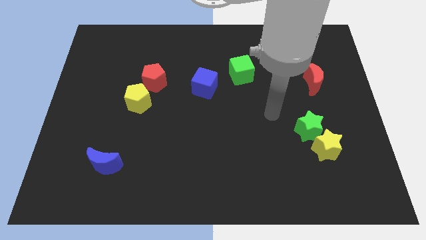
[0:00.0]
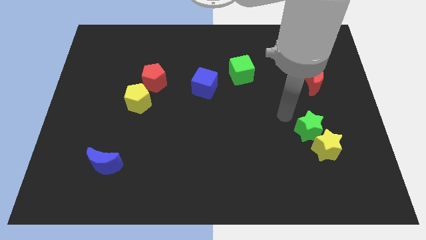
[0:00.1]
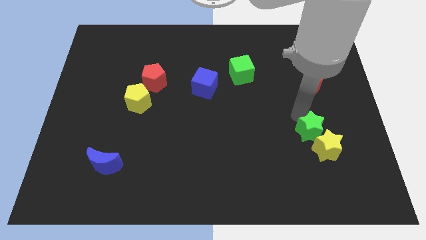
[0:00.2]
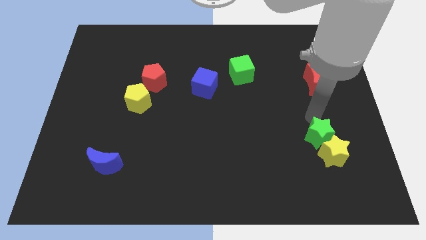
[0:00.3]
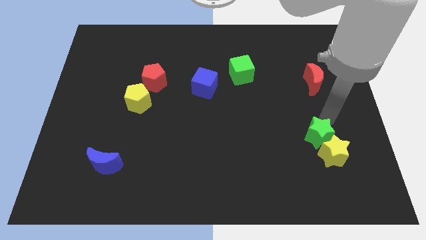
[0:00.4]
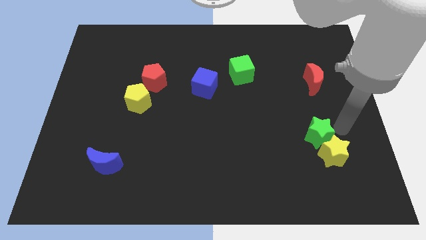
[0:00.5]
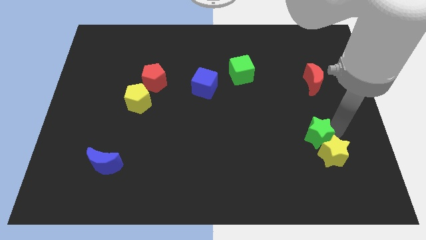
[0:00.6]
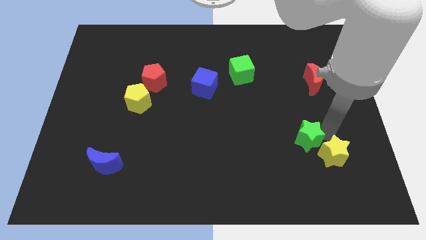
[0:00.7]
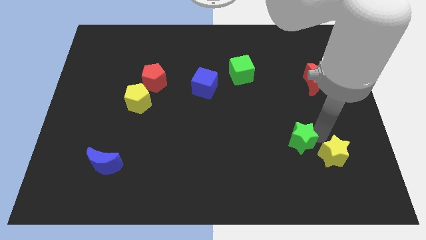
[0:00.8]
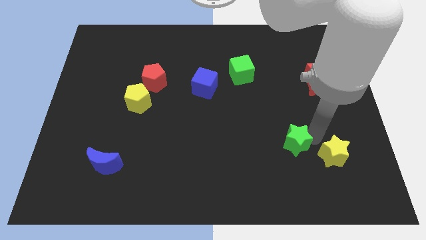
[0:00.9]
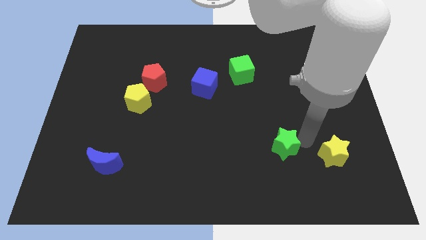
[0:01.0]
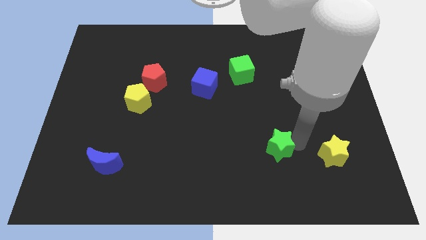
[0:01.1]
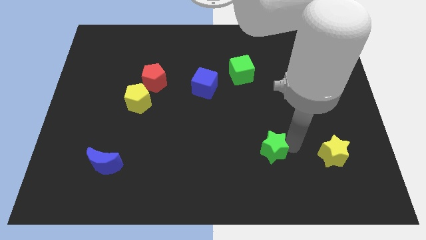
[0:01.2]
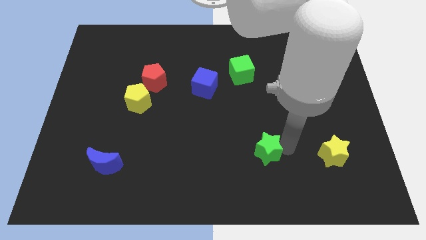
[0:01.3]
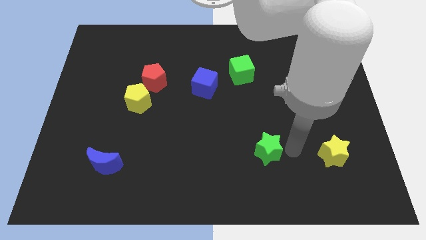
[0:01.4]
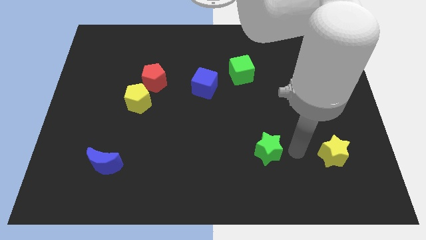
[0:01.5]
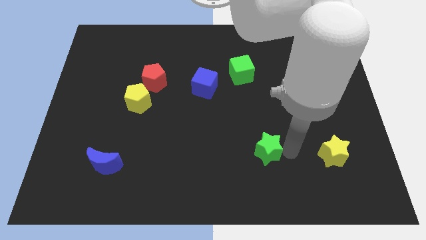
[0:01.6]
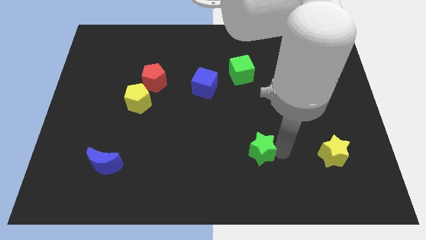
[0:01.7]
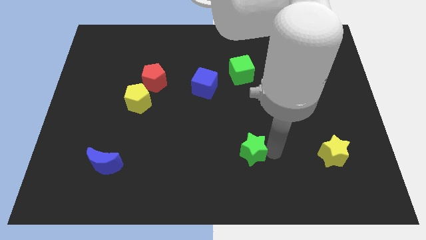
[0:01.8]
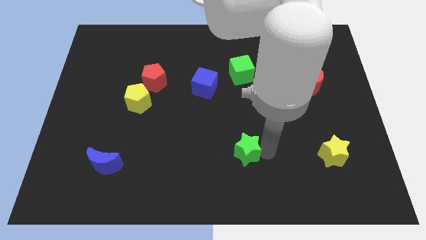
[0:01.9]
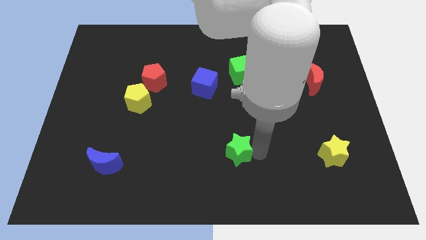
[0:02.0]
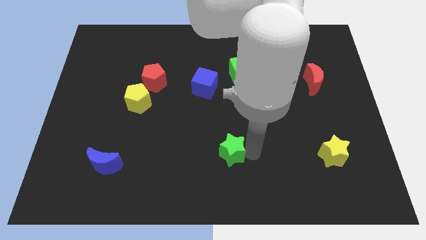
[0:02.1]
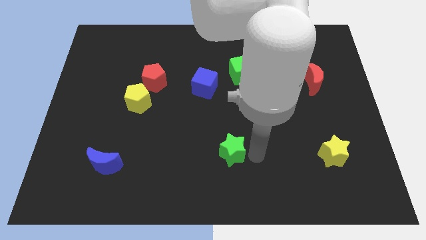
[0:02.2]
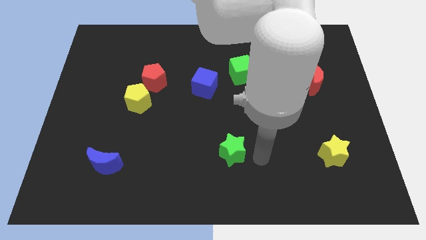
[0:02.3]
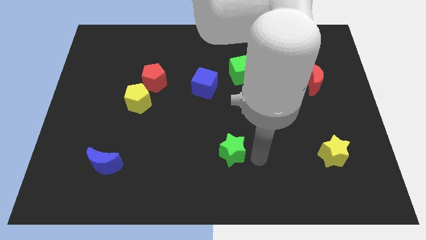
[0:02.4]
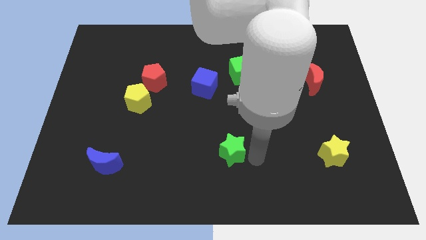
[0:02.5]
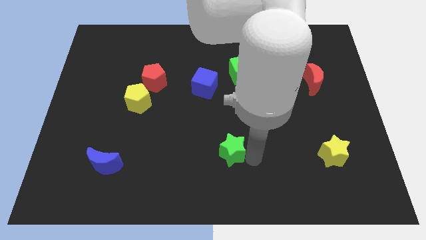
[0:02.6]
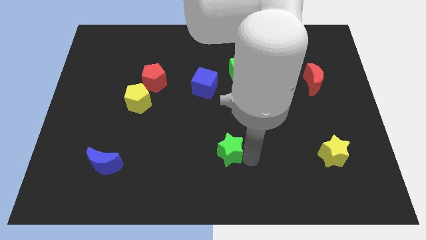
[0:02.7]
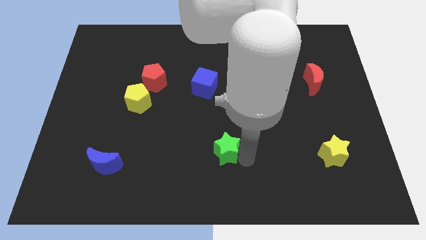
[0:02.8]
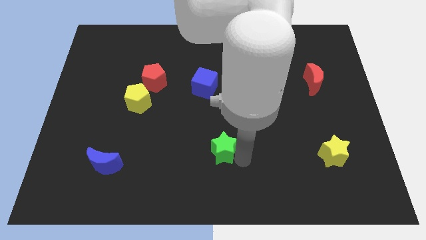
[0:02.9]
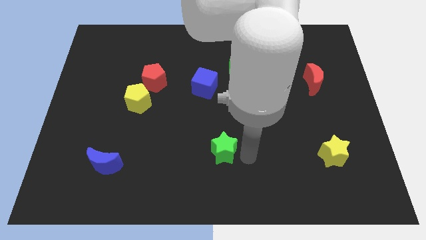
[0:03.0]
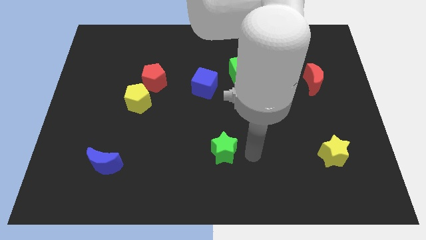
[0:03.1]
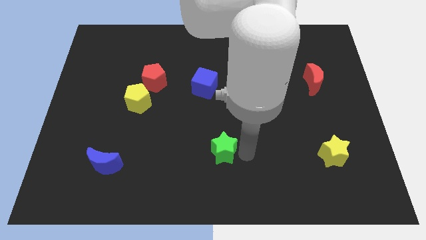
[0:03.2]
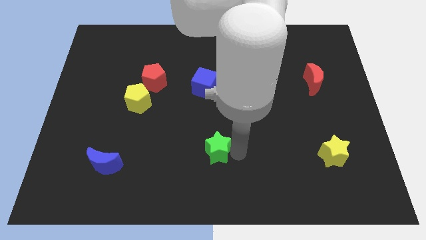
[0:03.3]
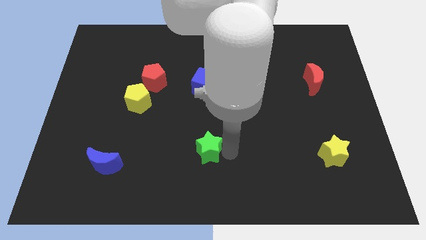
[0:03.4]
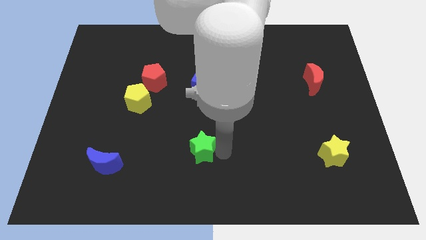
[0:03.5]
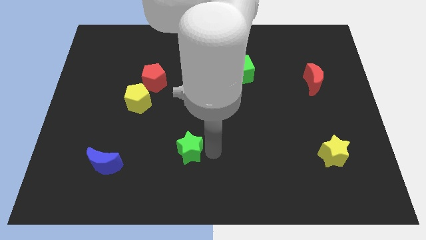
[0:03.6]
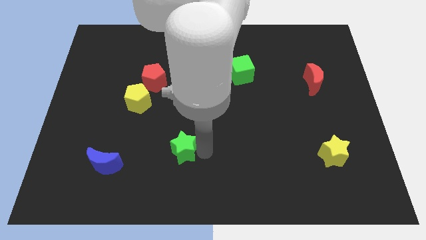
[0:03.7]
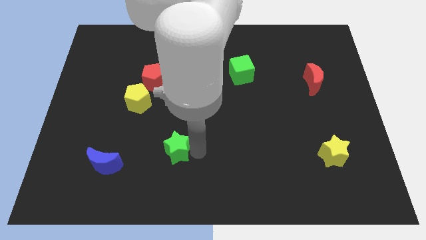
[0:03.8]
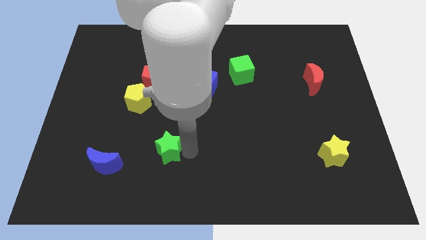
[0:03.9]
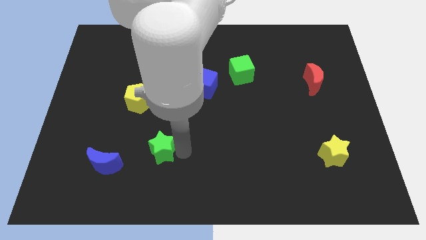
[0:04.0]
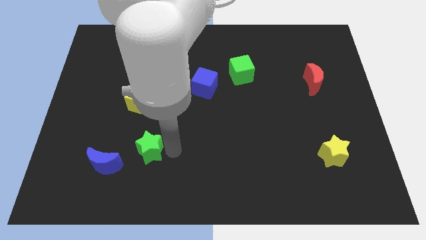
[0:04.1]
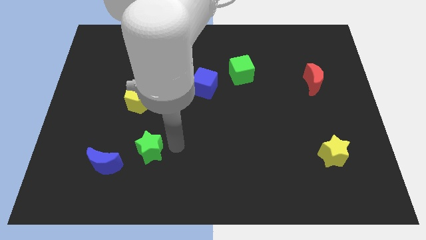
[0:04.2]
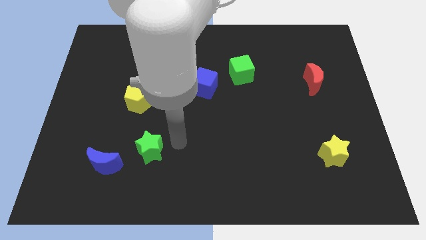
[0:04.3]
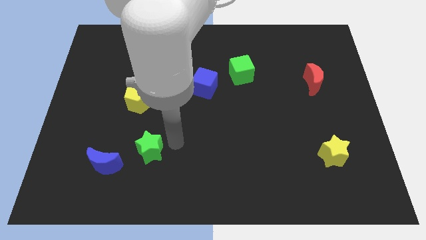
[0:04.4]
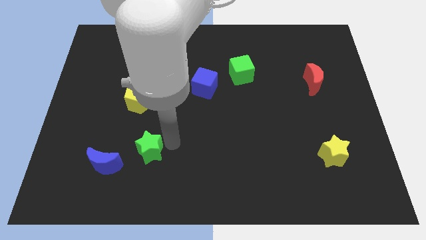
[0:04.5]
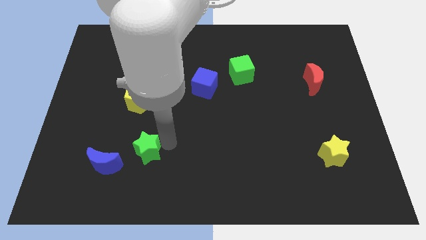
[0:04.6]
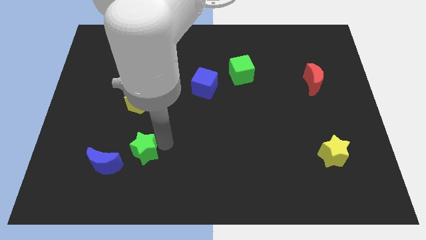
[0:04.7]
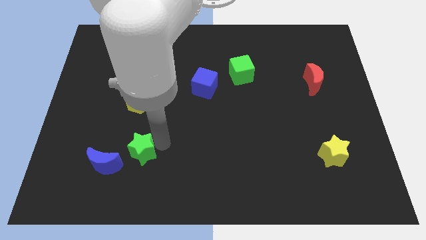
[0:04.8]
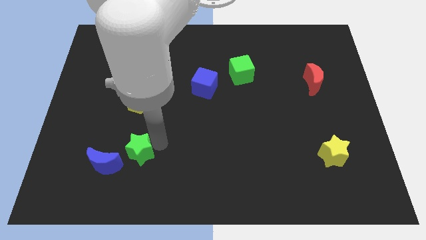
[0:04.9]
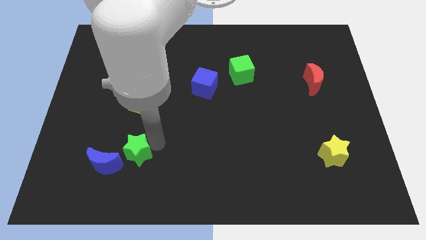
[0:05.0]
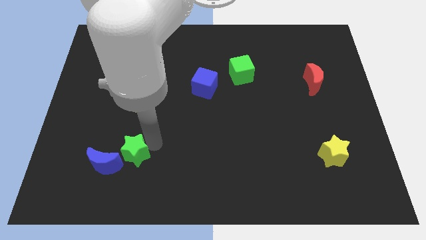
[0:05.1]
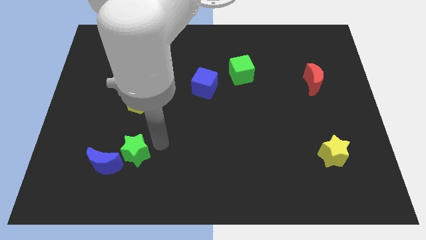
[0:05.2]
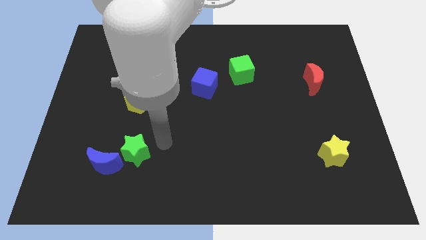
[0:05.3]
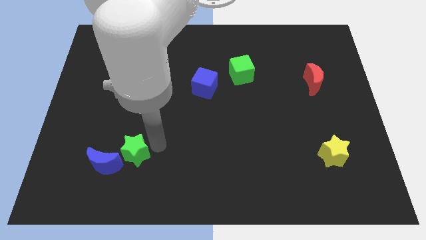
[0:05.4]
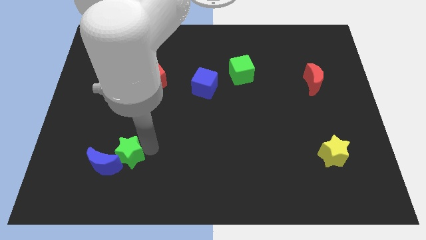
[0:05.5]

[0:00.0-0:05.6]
move the green star to the blue moon

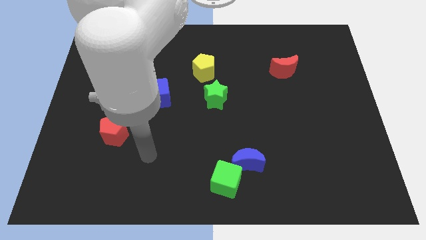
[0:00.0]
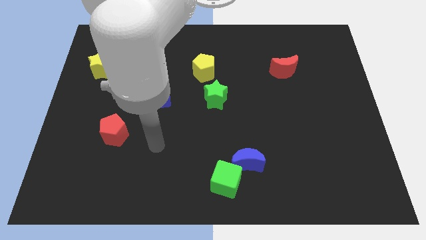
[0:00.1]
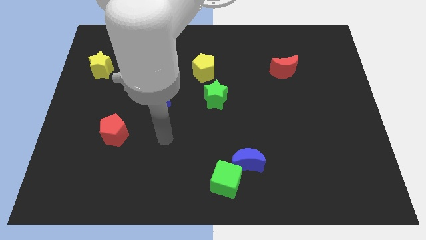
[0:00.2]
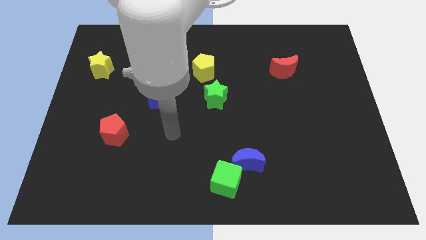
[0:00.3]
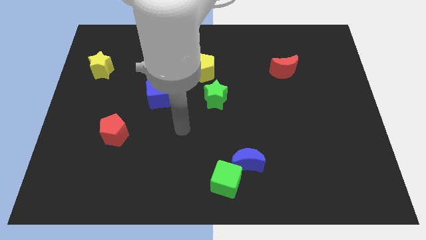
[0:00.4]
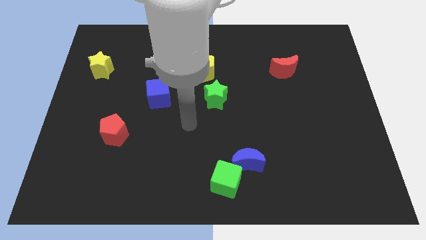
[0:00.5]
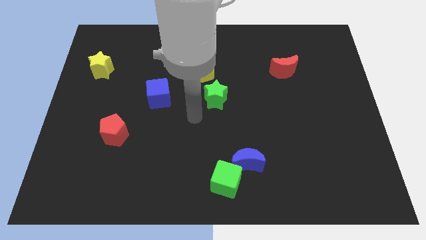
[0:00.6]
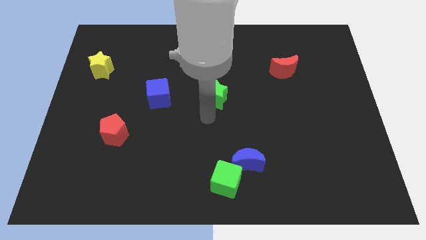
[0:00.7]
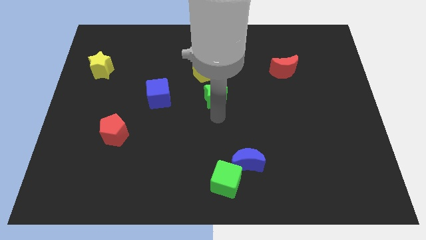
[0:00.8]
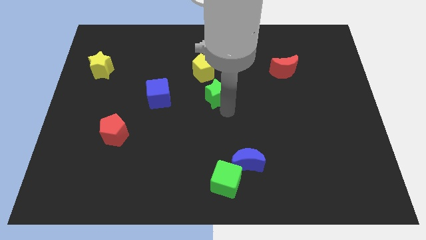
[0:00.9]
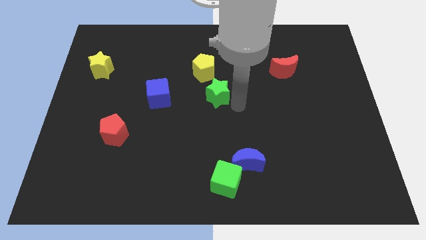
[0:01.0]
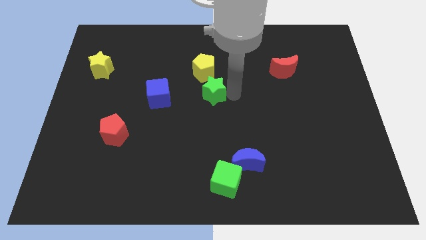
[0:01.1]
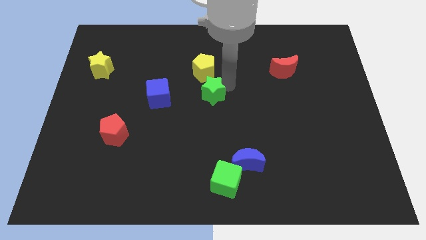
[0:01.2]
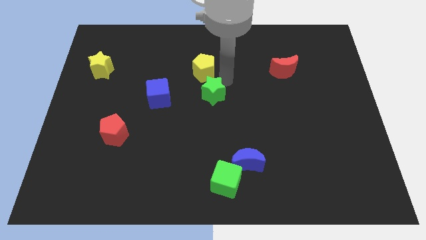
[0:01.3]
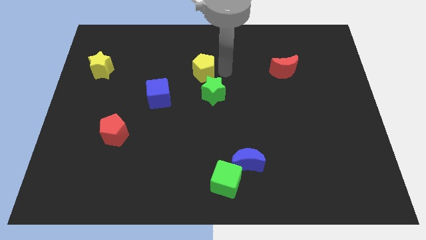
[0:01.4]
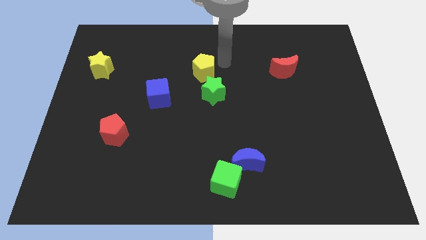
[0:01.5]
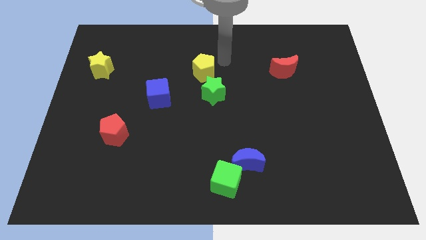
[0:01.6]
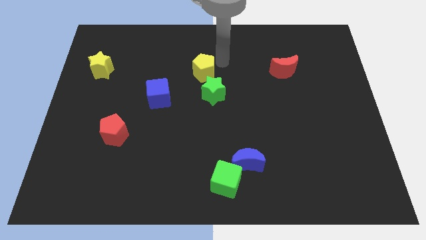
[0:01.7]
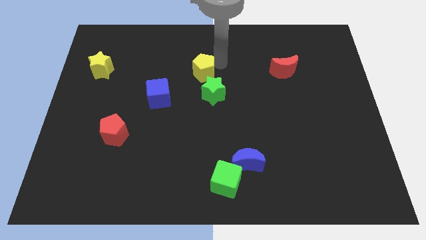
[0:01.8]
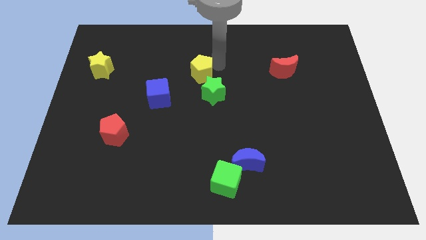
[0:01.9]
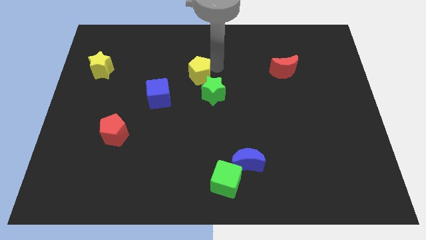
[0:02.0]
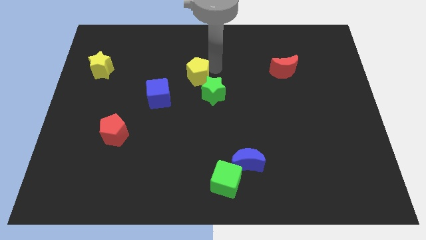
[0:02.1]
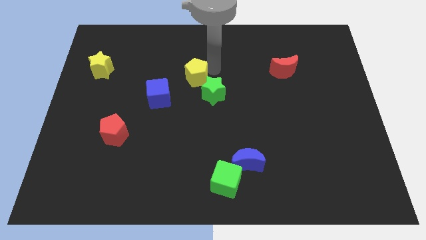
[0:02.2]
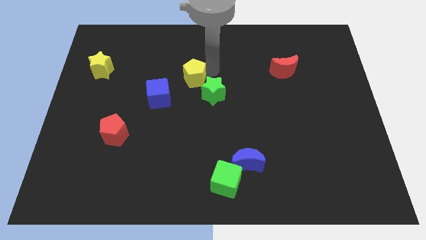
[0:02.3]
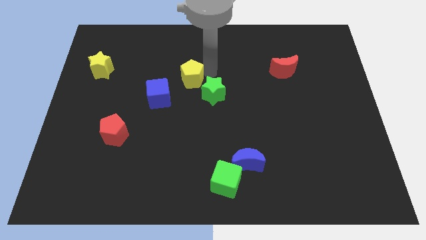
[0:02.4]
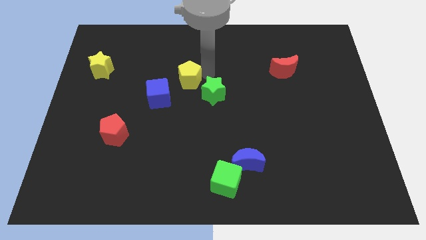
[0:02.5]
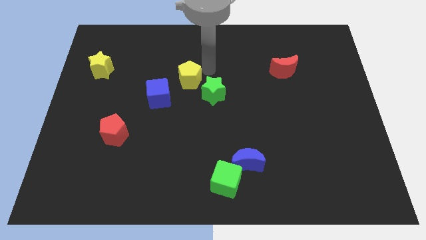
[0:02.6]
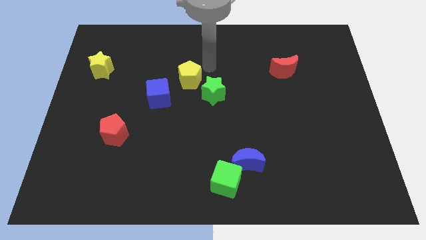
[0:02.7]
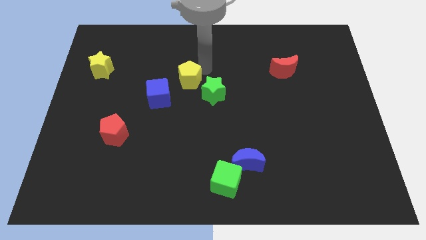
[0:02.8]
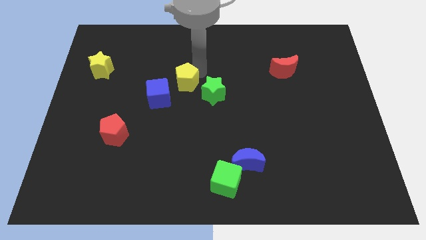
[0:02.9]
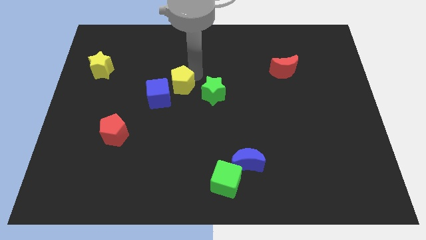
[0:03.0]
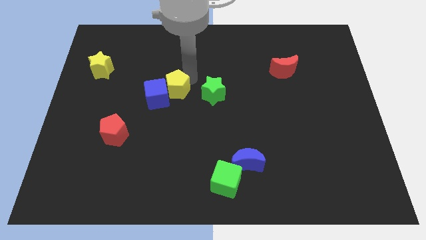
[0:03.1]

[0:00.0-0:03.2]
put the yellow pentagon towards the blue cube
